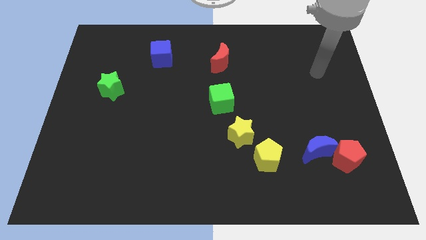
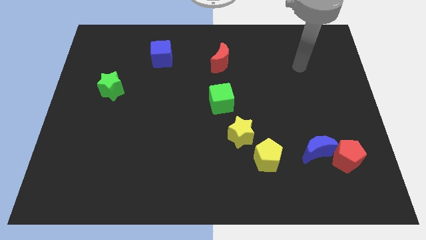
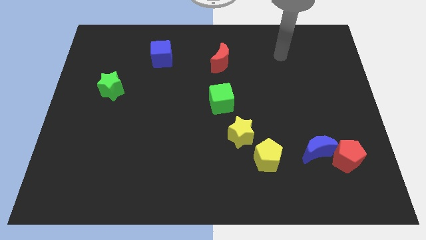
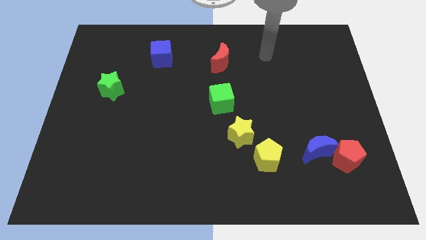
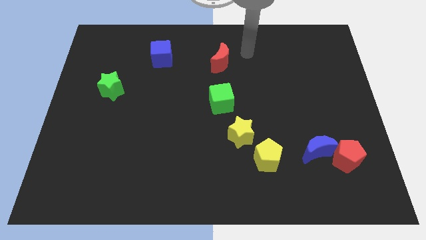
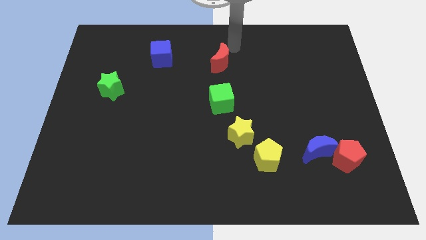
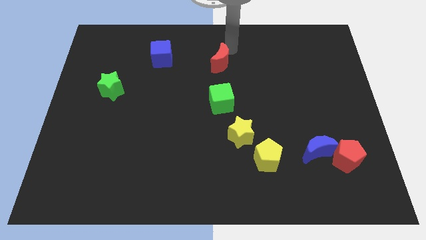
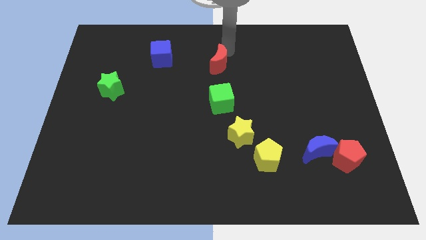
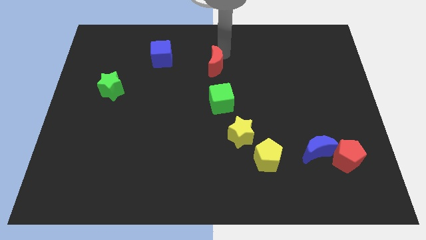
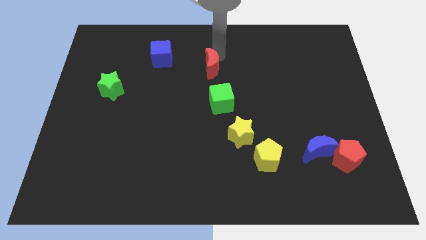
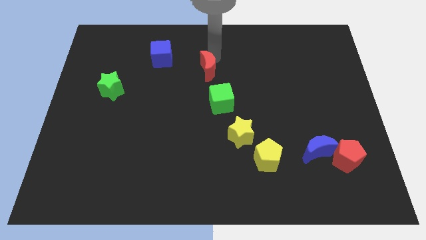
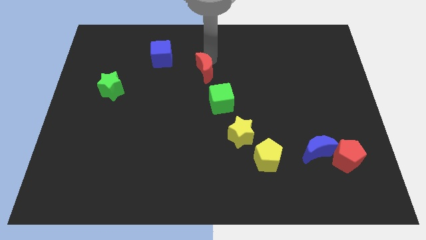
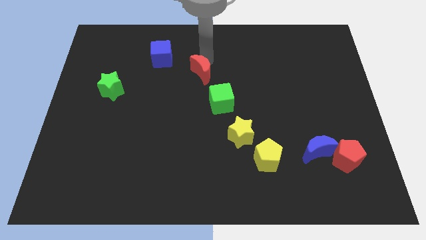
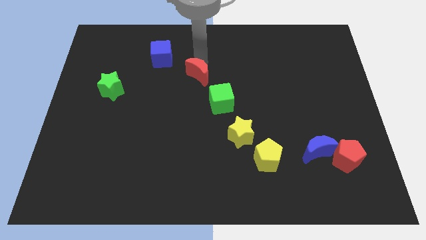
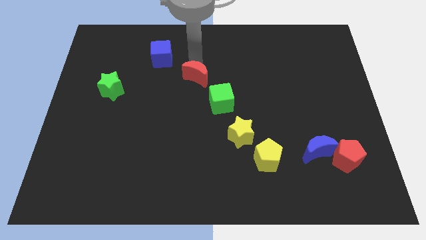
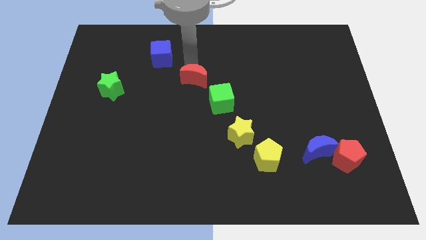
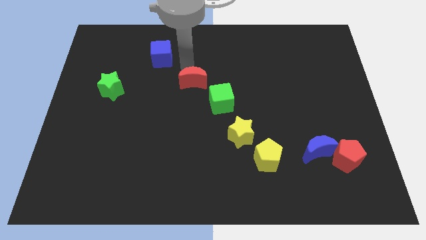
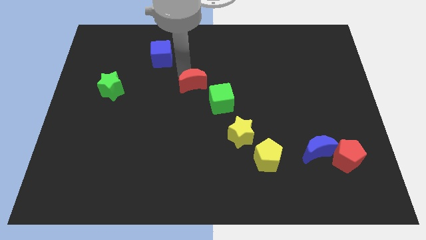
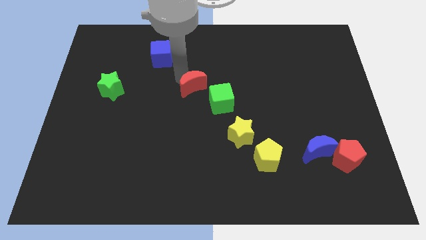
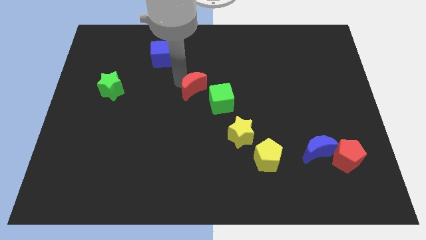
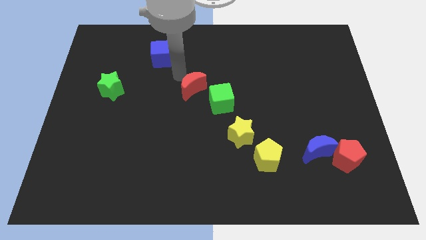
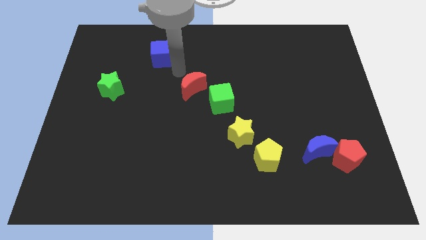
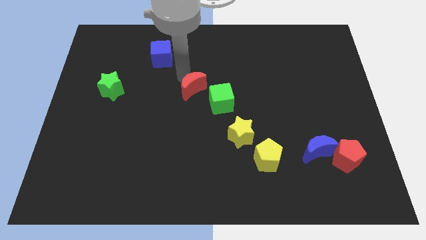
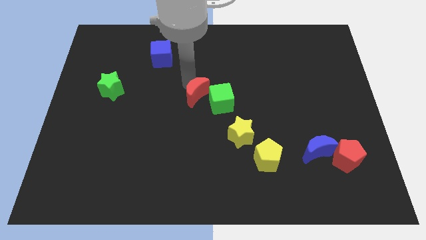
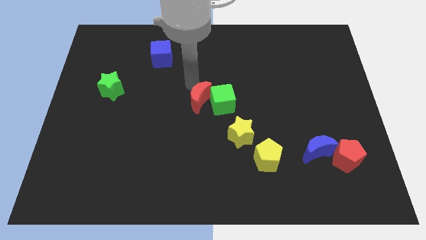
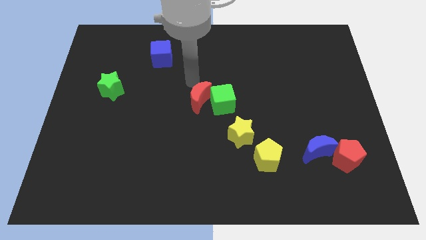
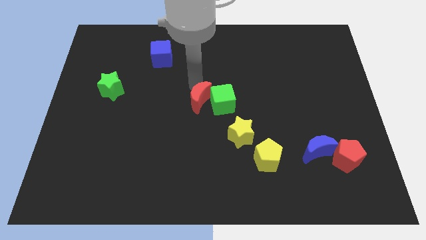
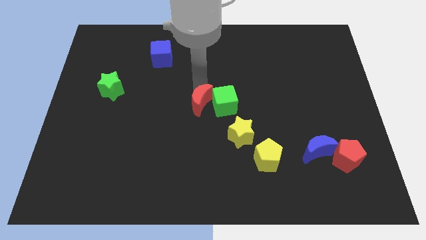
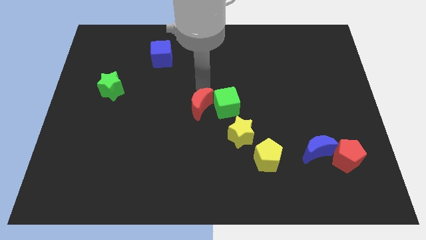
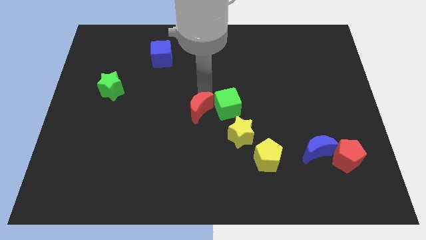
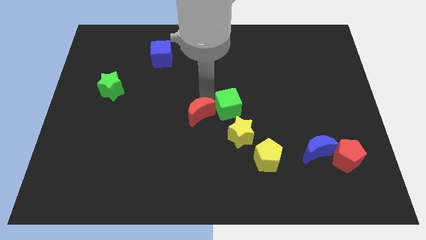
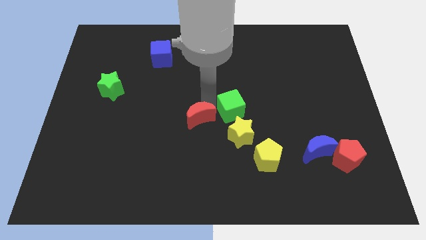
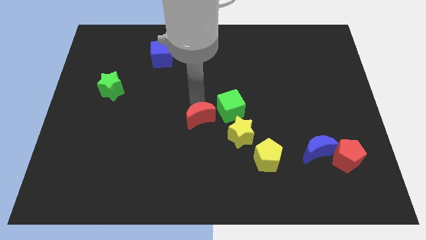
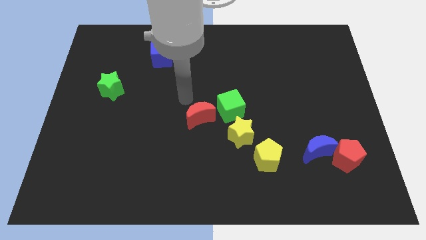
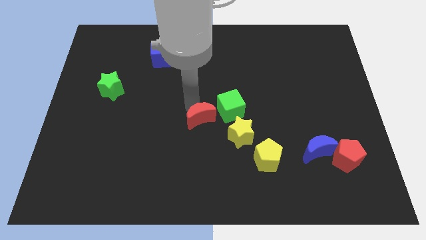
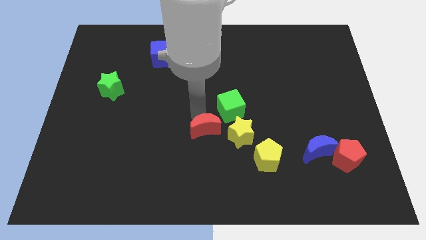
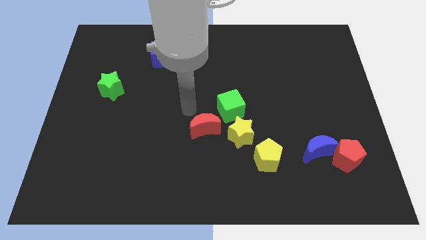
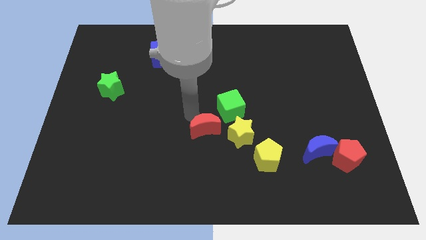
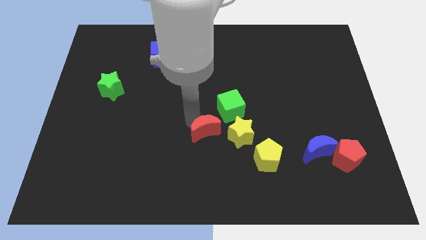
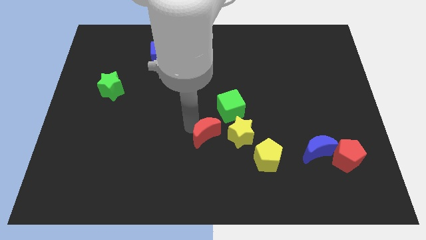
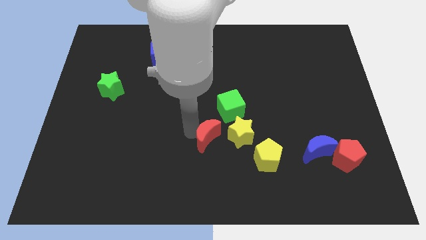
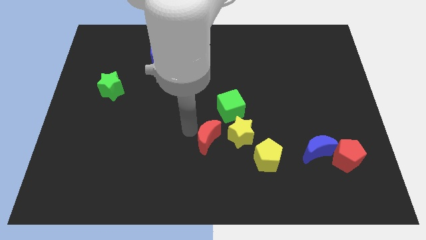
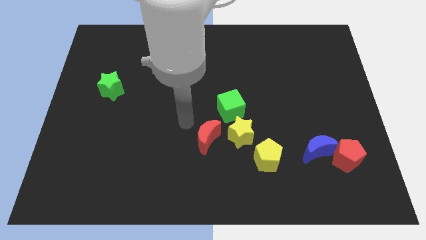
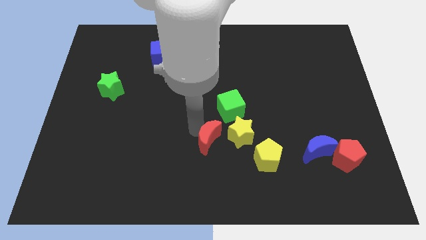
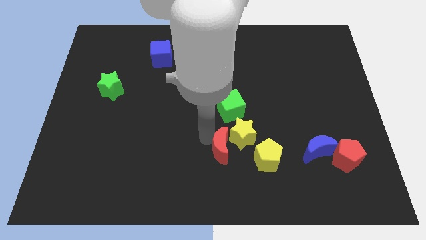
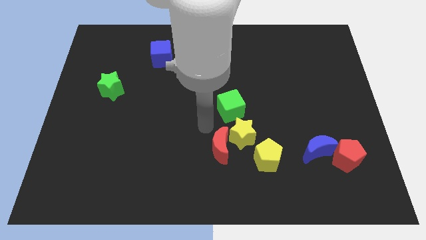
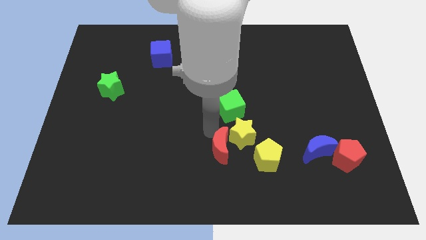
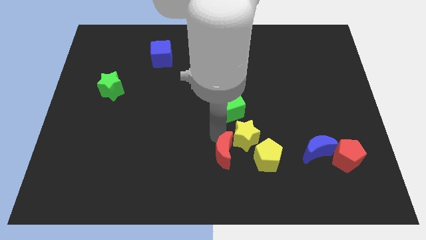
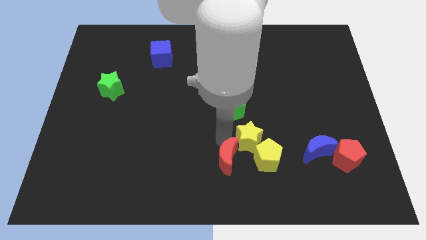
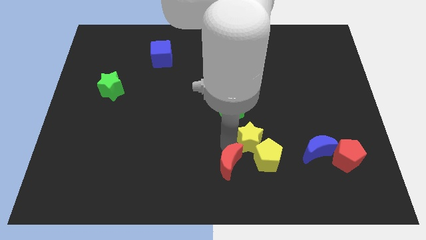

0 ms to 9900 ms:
put the red moon to the bottom left of the yellow pentagon

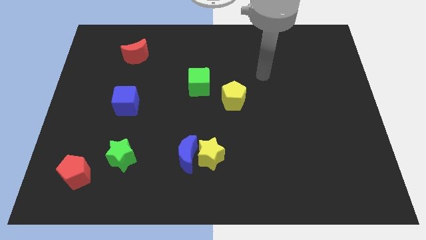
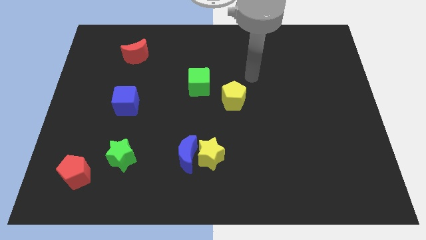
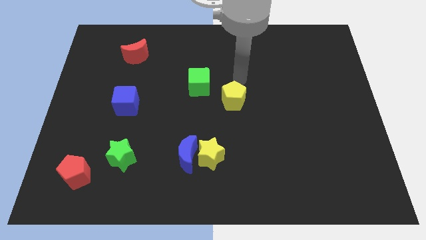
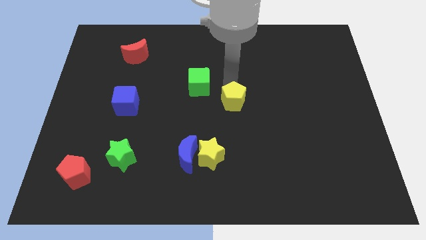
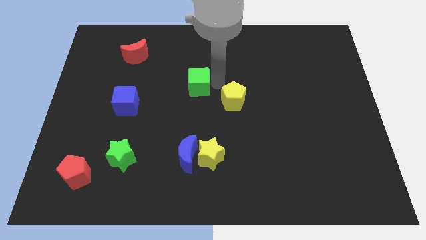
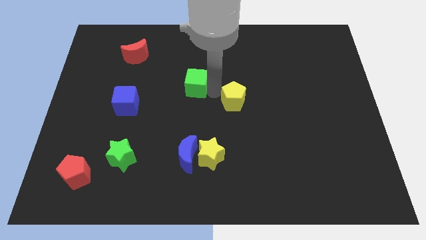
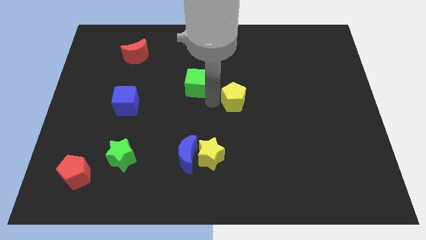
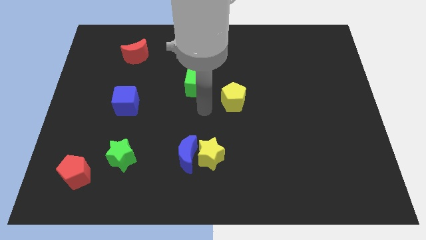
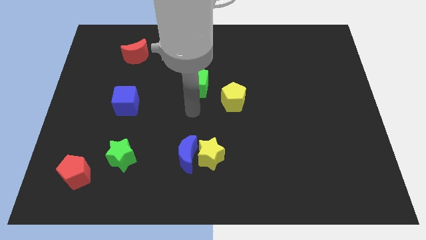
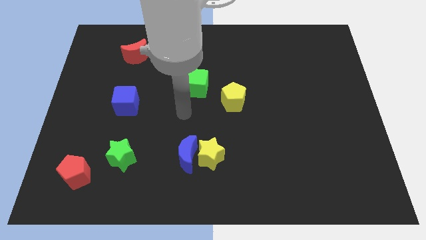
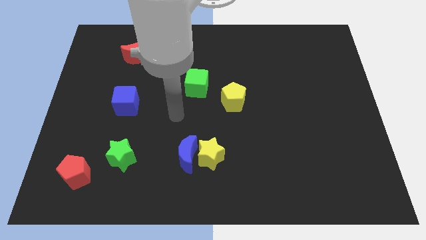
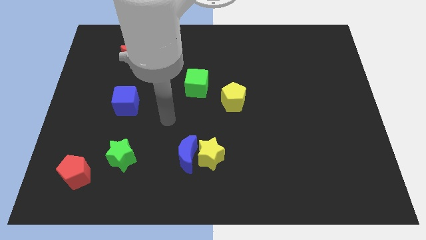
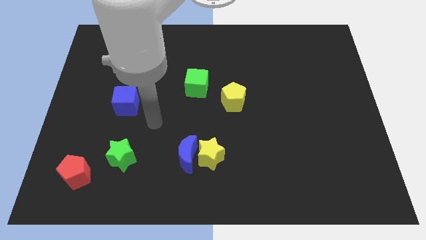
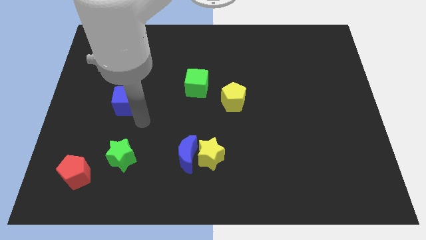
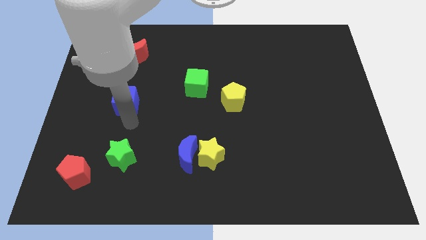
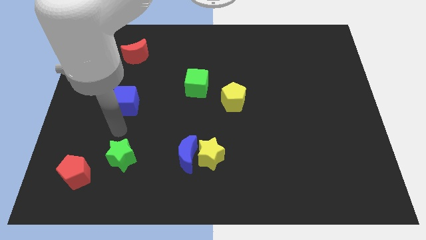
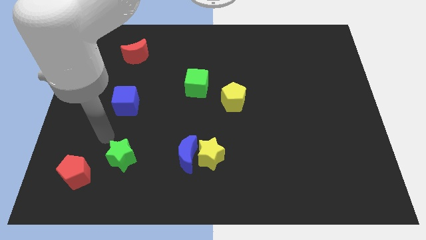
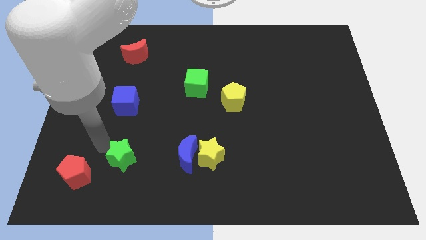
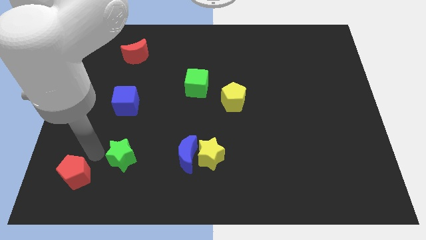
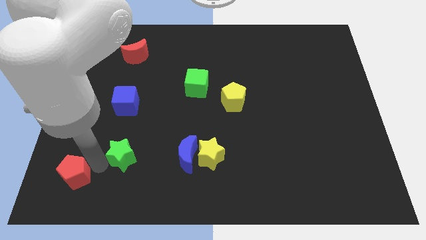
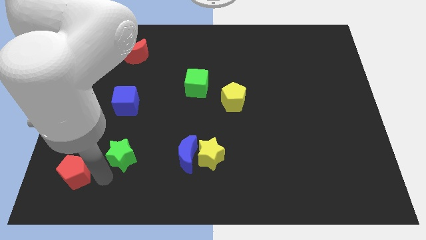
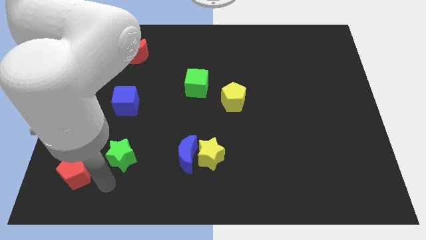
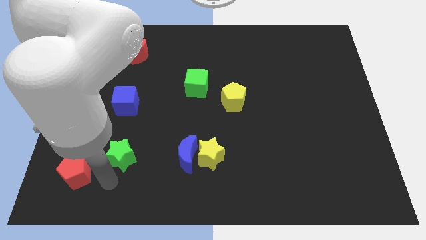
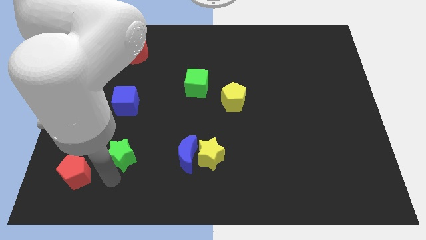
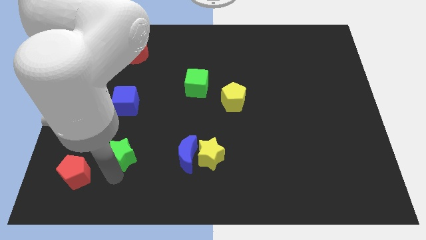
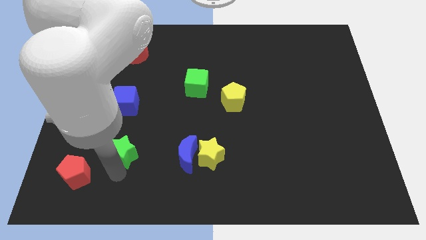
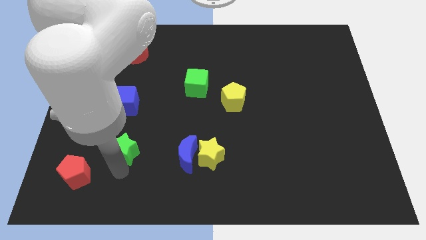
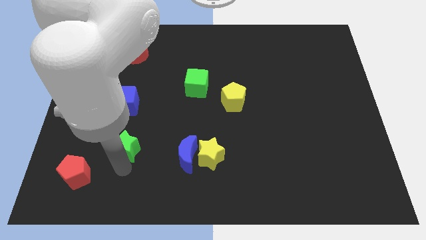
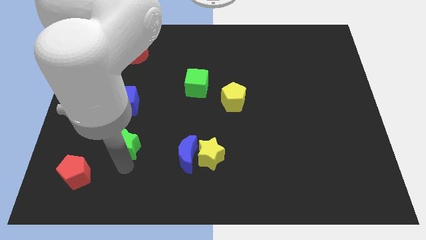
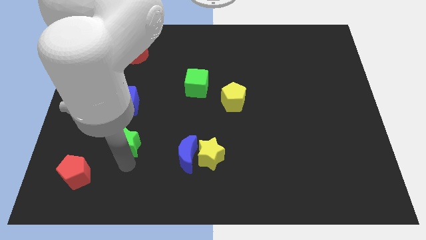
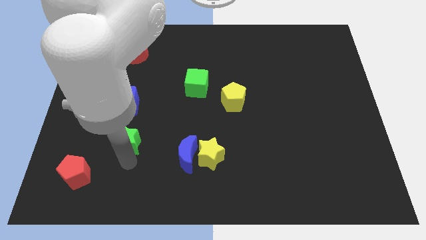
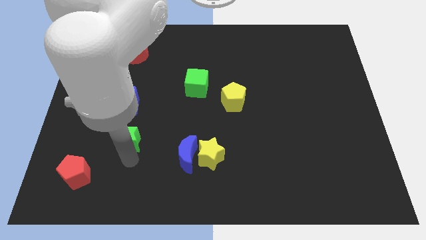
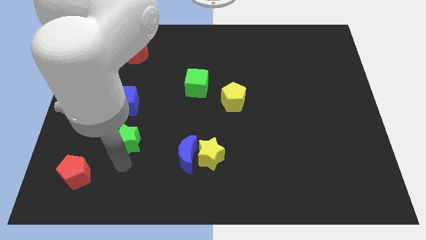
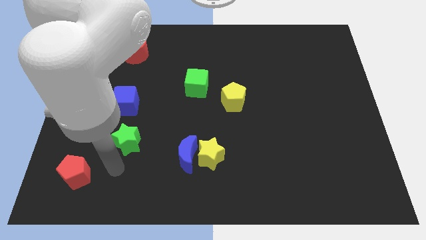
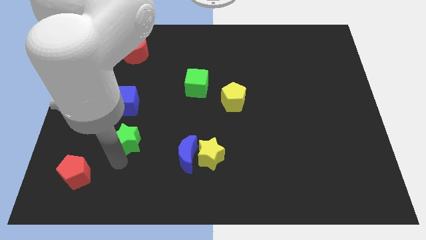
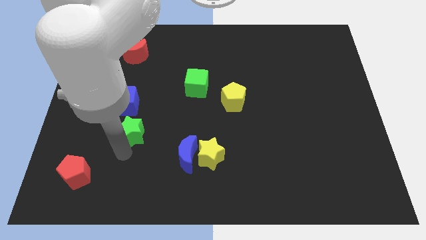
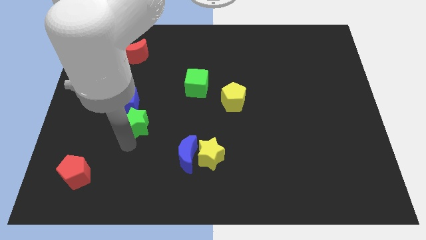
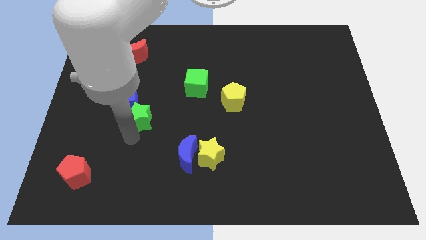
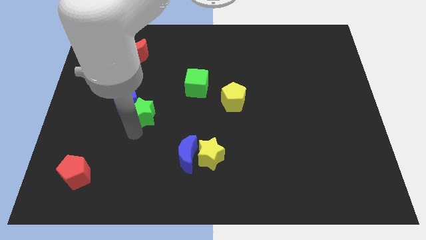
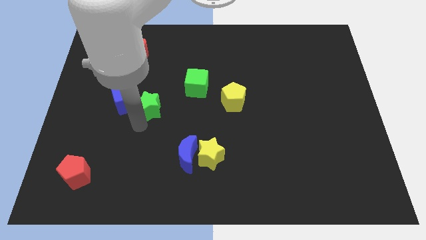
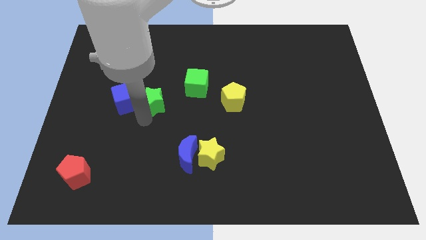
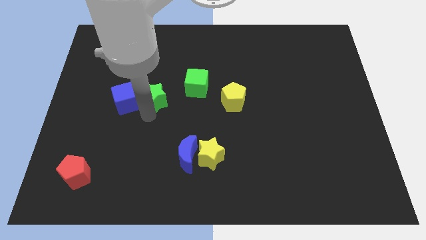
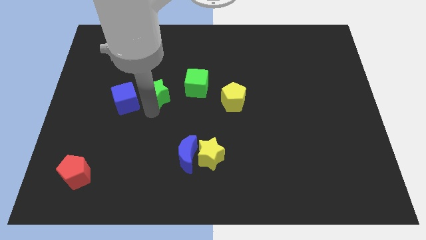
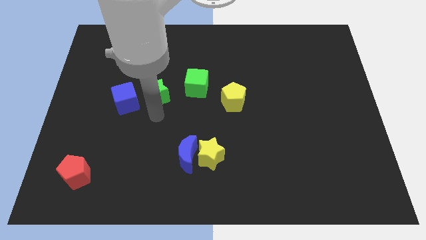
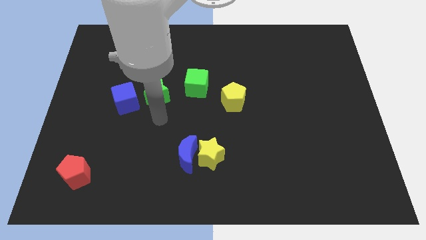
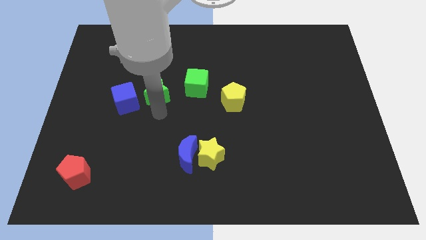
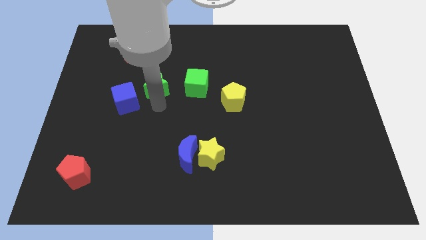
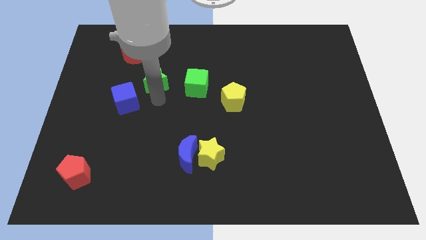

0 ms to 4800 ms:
put the green star to the bottom right side of the red moon
